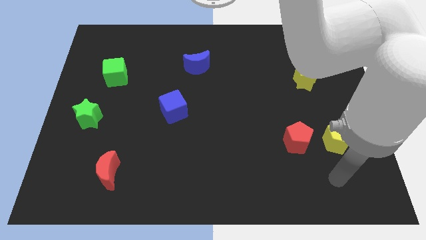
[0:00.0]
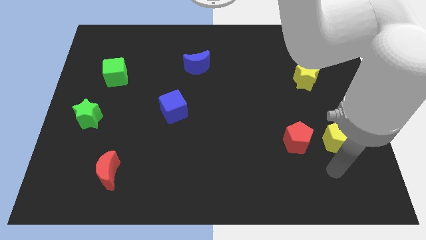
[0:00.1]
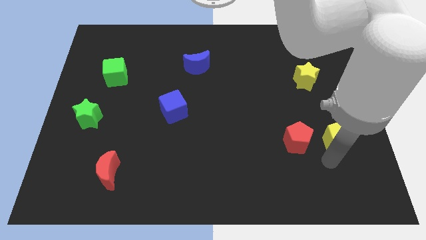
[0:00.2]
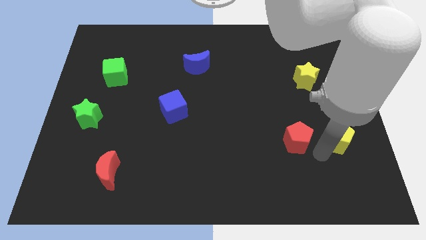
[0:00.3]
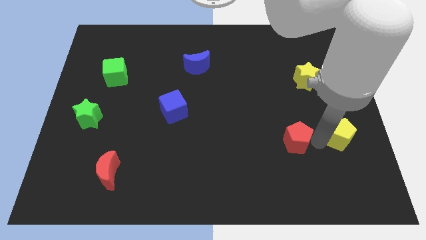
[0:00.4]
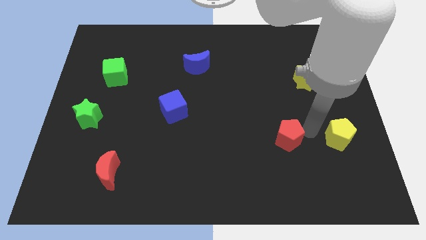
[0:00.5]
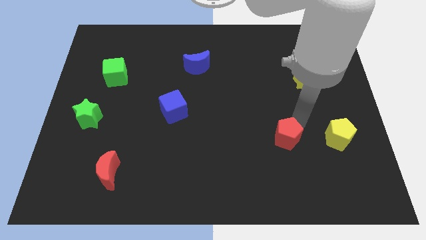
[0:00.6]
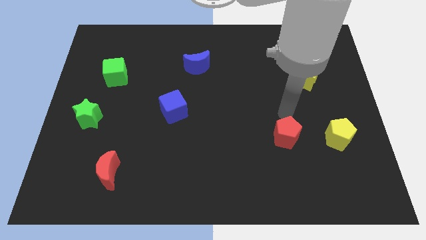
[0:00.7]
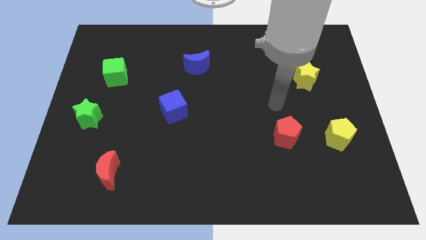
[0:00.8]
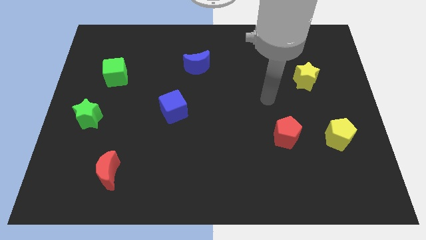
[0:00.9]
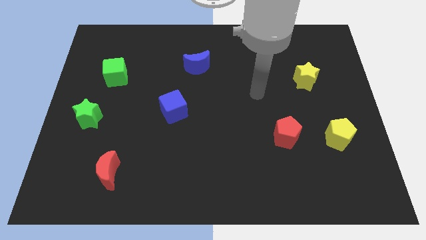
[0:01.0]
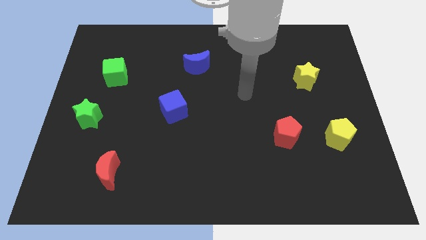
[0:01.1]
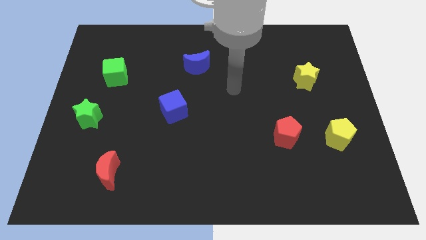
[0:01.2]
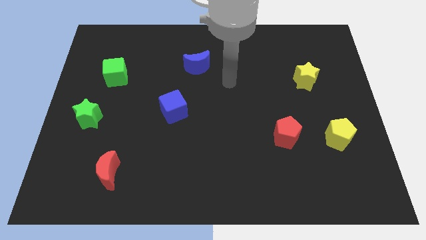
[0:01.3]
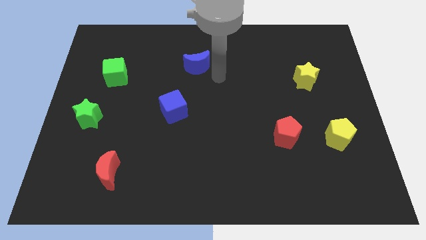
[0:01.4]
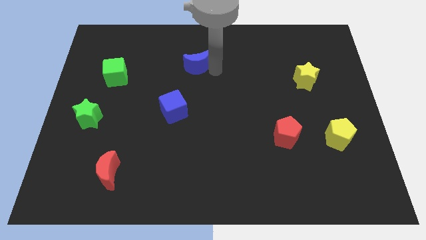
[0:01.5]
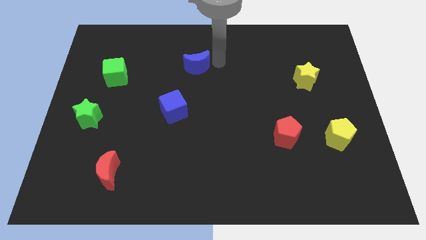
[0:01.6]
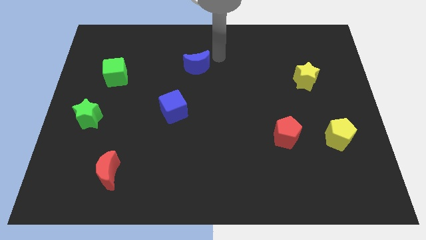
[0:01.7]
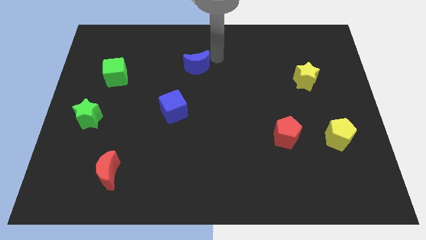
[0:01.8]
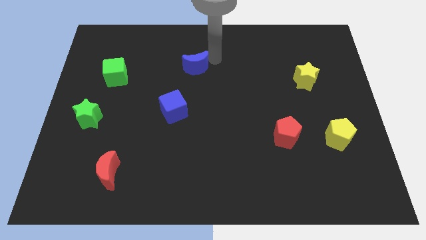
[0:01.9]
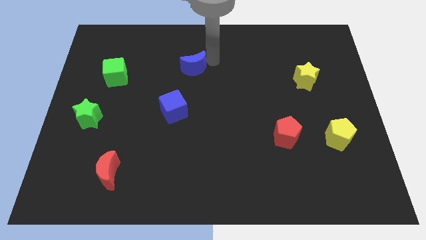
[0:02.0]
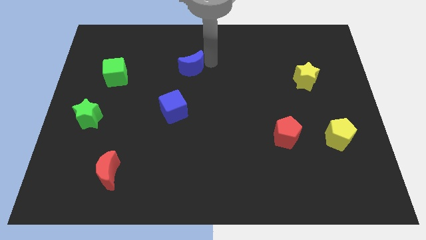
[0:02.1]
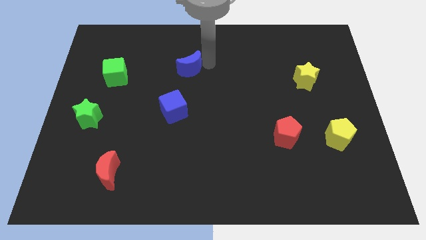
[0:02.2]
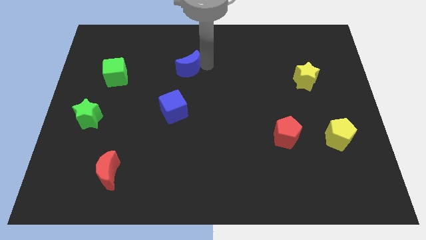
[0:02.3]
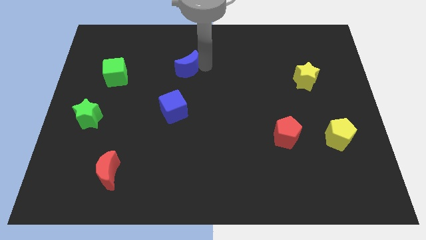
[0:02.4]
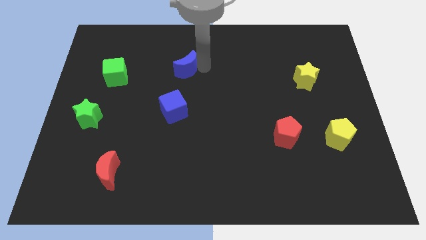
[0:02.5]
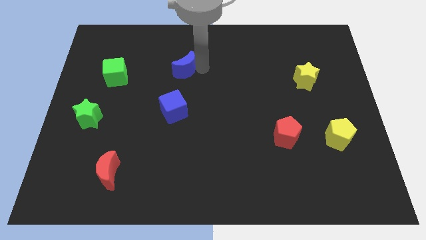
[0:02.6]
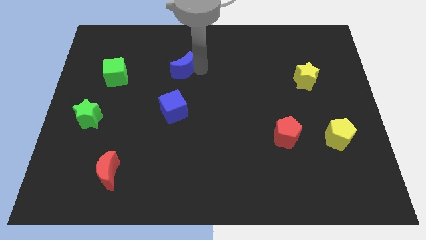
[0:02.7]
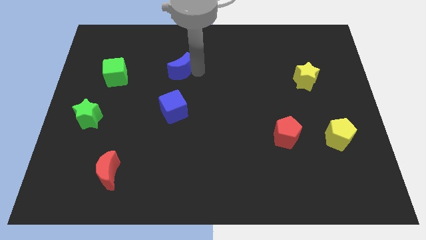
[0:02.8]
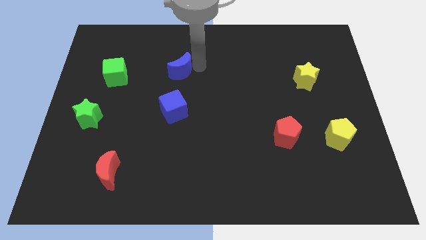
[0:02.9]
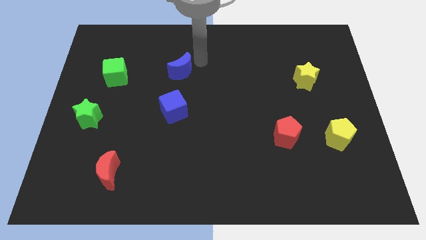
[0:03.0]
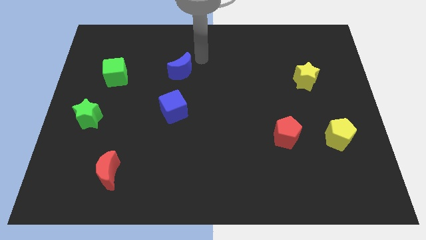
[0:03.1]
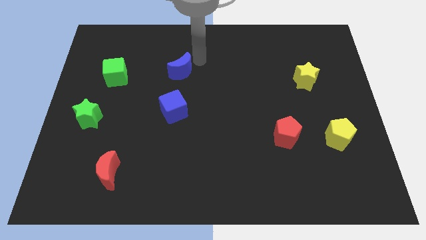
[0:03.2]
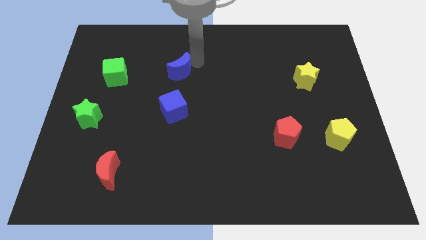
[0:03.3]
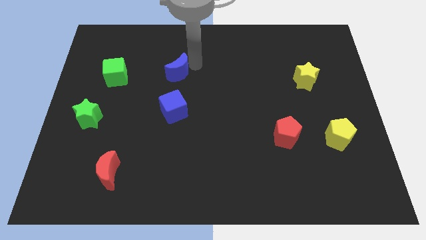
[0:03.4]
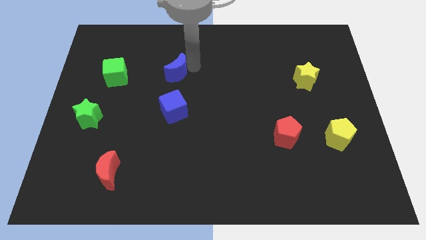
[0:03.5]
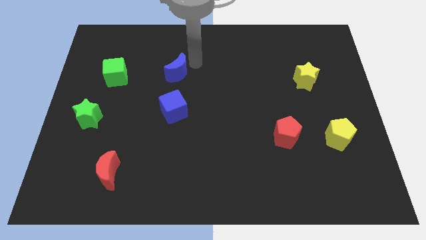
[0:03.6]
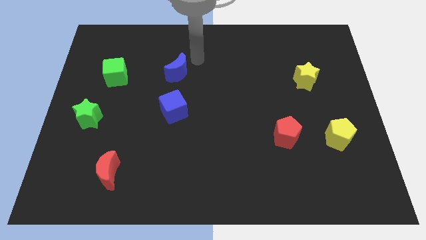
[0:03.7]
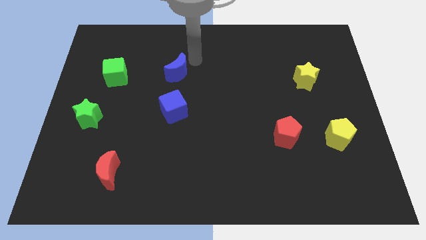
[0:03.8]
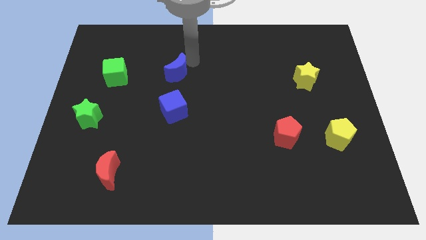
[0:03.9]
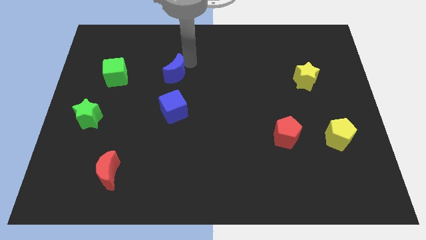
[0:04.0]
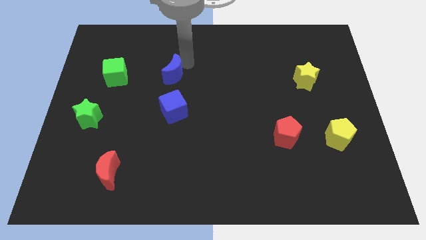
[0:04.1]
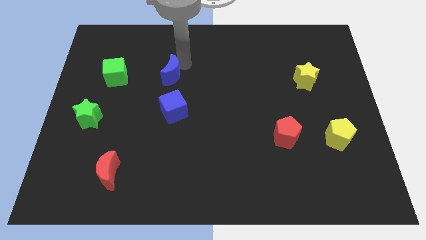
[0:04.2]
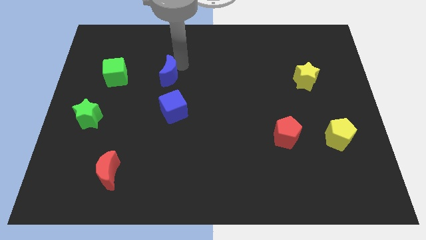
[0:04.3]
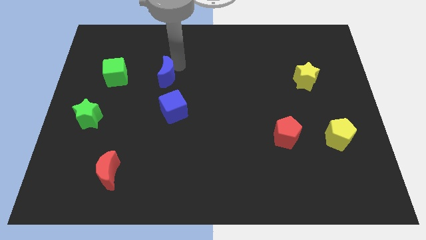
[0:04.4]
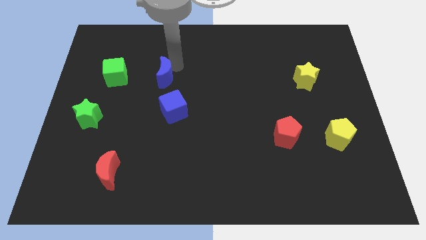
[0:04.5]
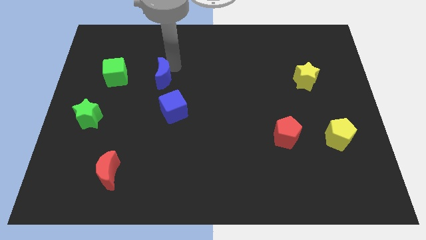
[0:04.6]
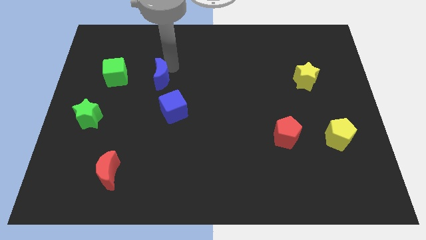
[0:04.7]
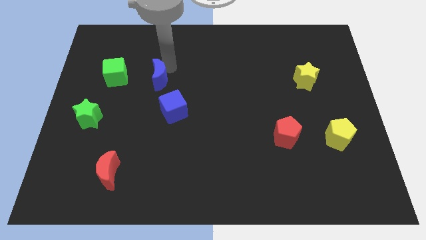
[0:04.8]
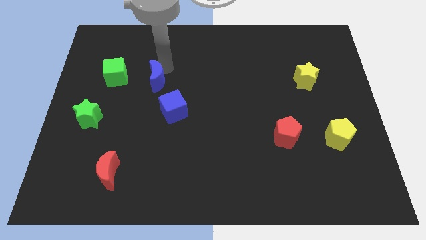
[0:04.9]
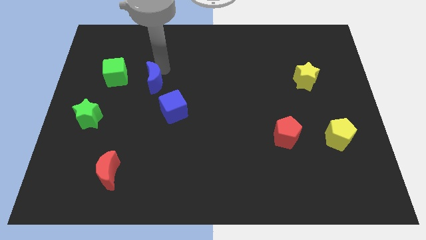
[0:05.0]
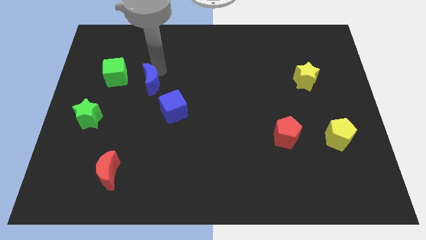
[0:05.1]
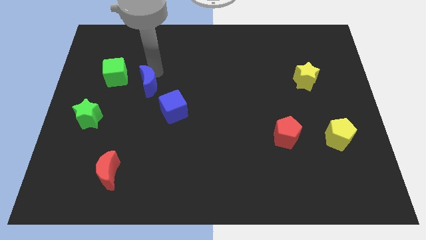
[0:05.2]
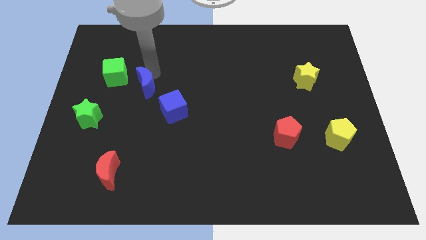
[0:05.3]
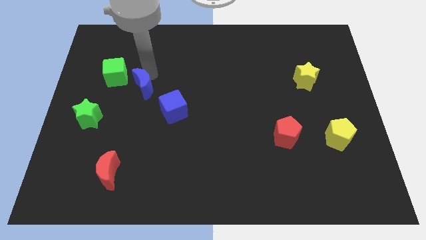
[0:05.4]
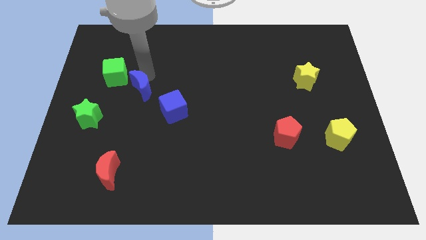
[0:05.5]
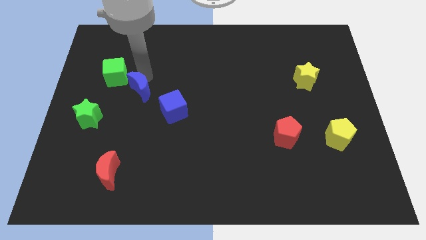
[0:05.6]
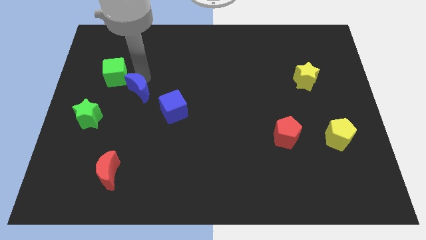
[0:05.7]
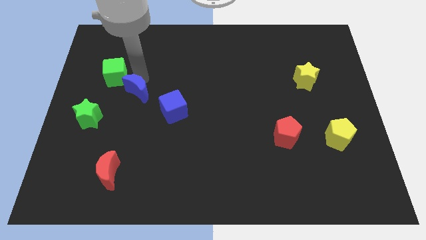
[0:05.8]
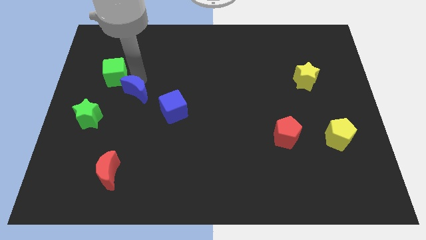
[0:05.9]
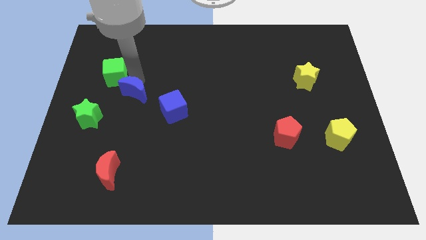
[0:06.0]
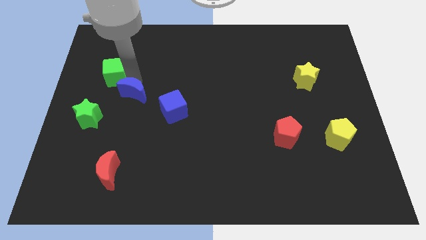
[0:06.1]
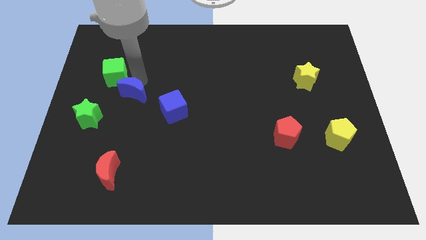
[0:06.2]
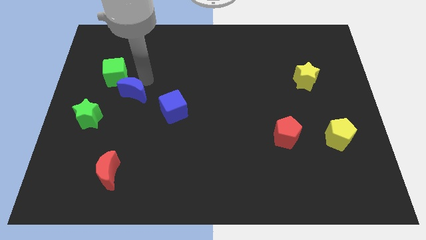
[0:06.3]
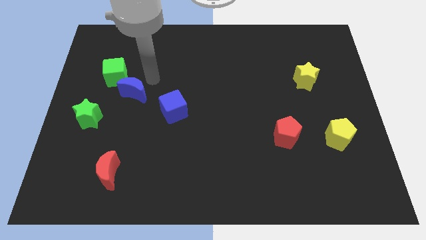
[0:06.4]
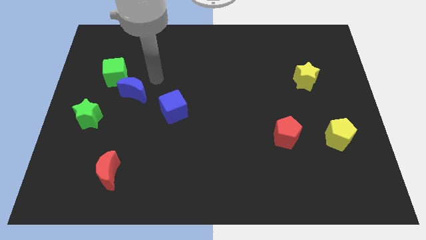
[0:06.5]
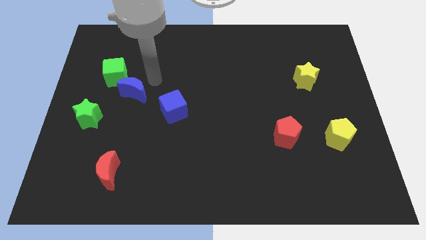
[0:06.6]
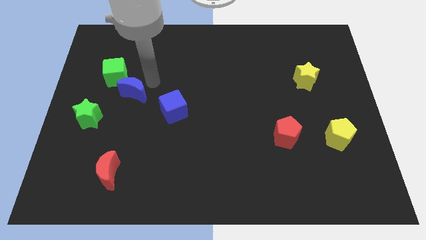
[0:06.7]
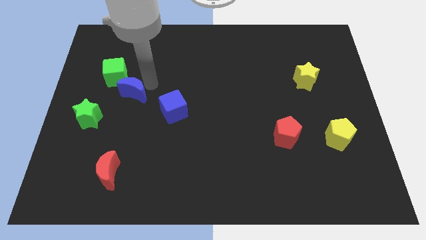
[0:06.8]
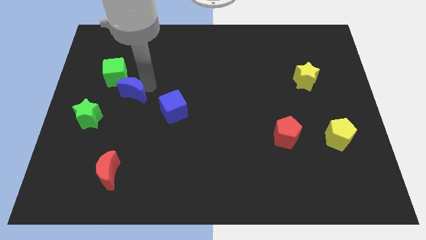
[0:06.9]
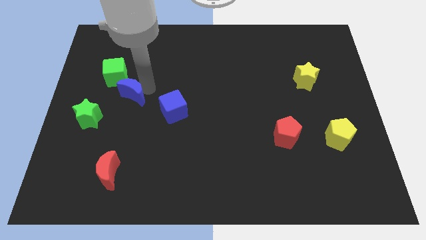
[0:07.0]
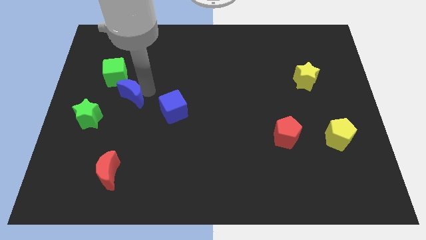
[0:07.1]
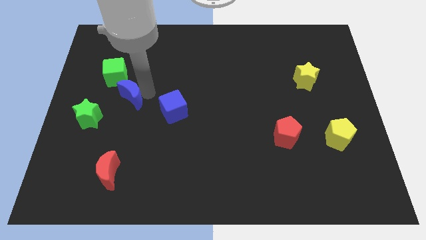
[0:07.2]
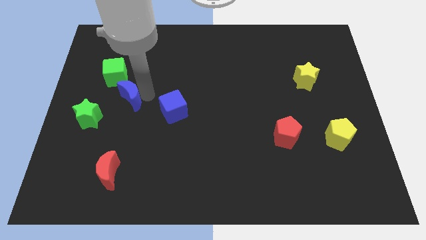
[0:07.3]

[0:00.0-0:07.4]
put the blue moon to the bottom of the green cube
